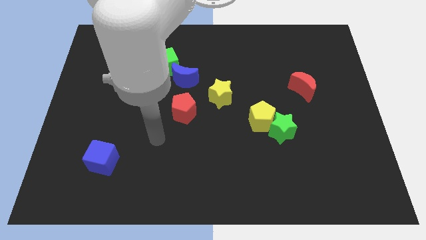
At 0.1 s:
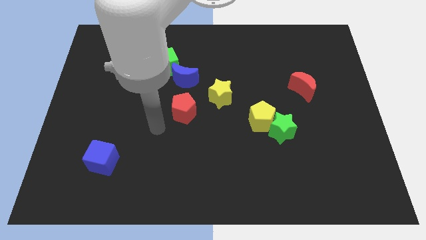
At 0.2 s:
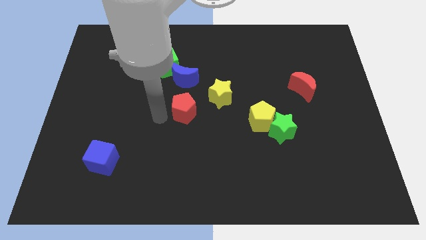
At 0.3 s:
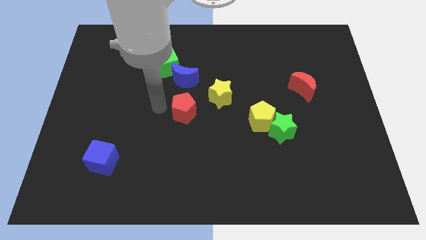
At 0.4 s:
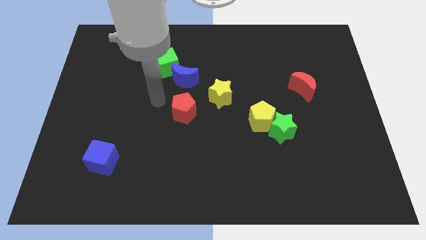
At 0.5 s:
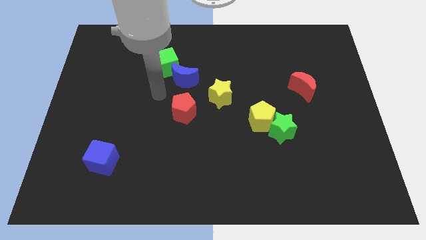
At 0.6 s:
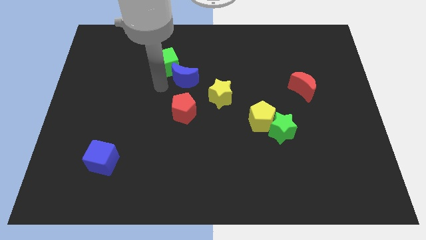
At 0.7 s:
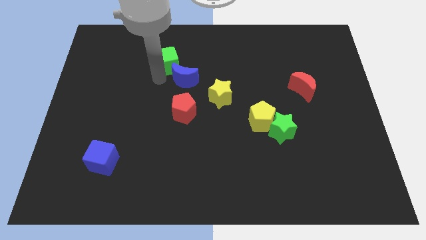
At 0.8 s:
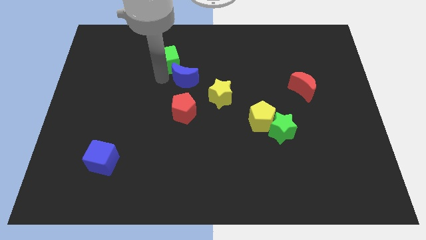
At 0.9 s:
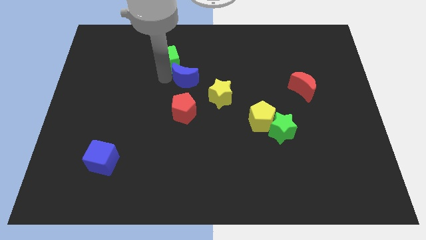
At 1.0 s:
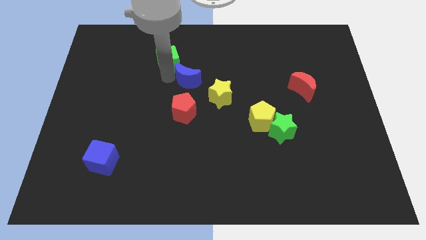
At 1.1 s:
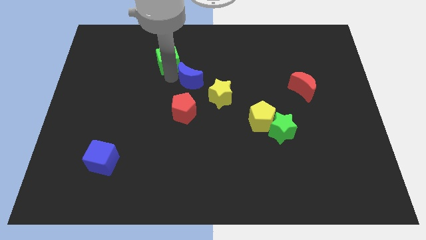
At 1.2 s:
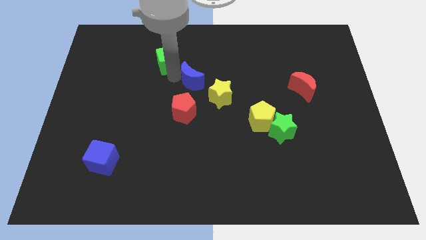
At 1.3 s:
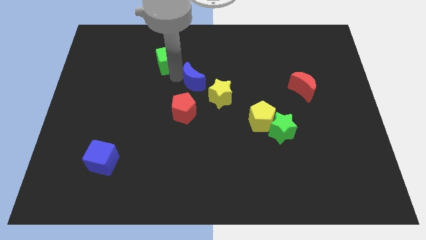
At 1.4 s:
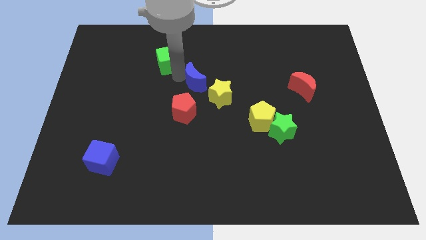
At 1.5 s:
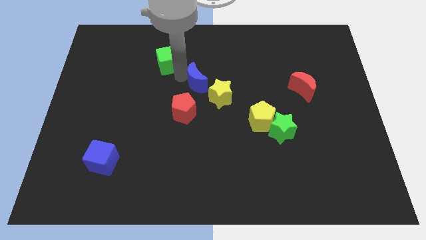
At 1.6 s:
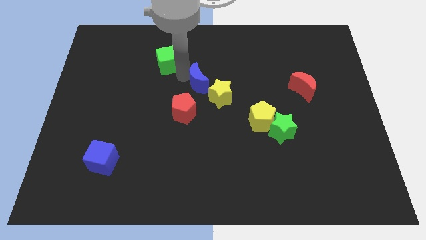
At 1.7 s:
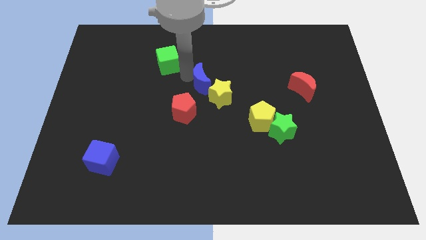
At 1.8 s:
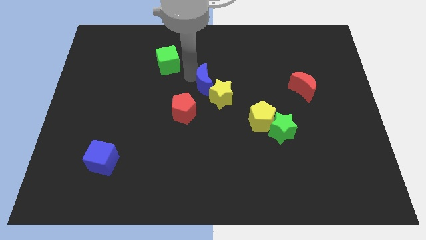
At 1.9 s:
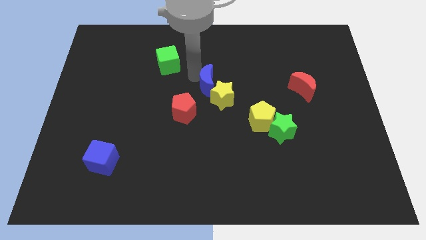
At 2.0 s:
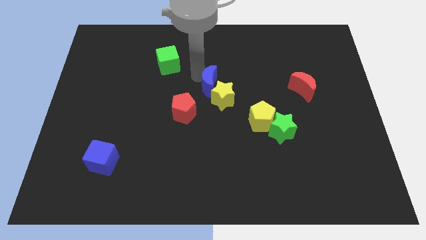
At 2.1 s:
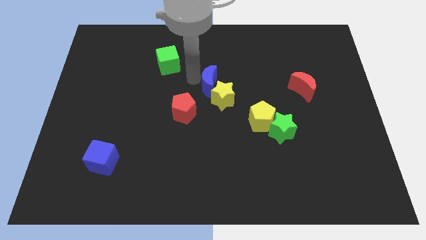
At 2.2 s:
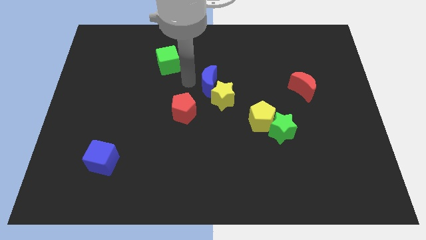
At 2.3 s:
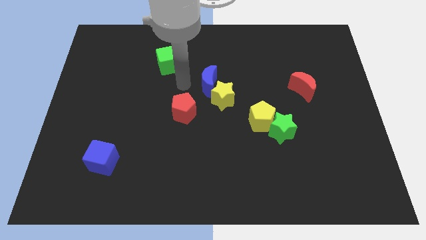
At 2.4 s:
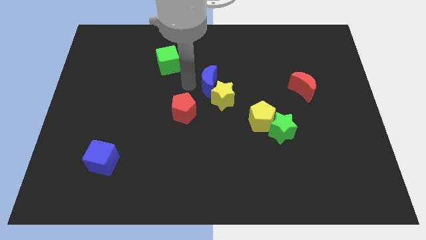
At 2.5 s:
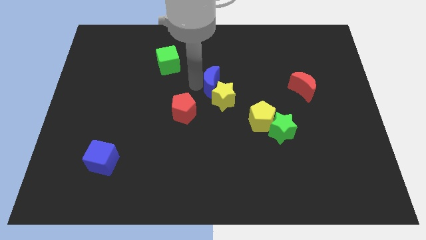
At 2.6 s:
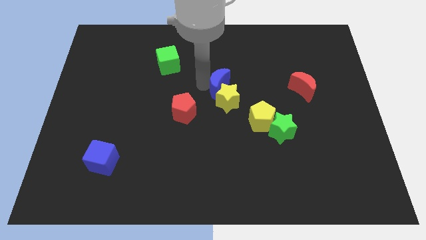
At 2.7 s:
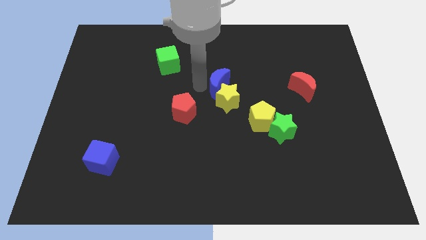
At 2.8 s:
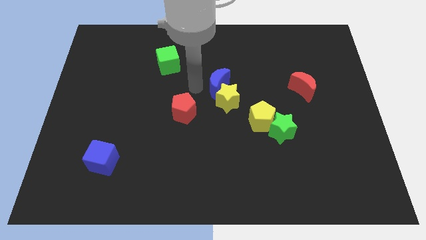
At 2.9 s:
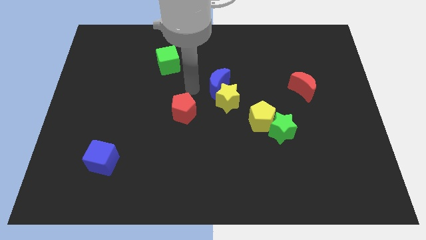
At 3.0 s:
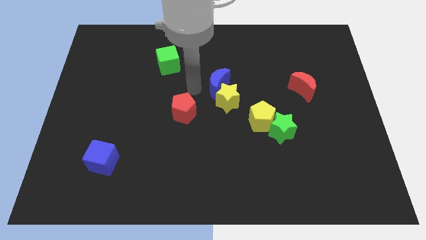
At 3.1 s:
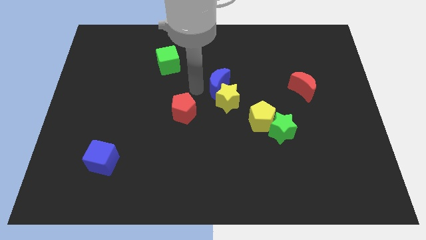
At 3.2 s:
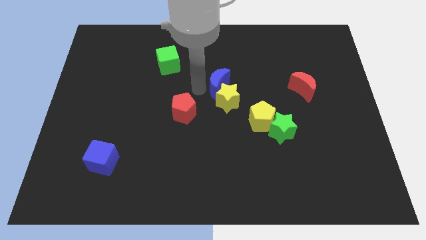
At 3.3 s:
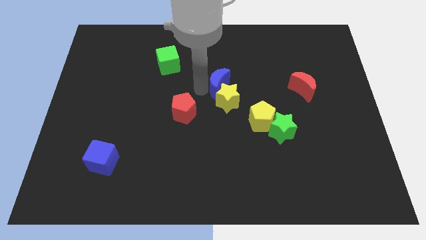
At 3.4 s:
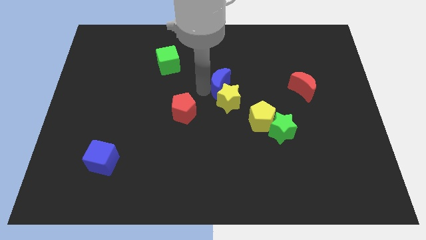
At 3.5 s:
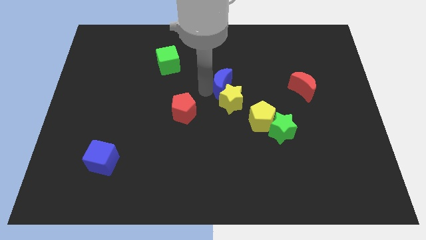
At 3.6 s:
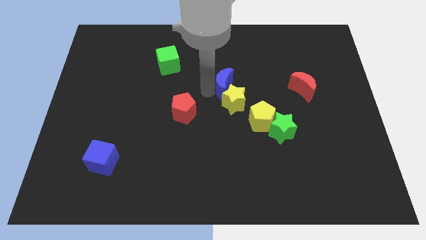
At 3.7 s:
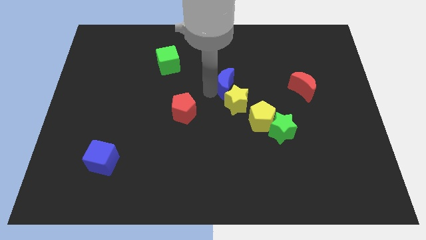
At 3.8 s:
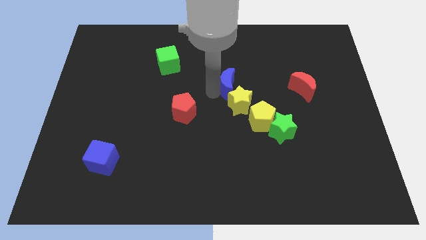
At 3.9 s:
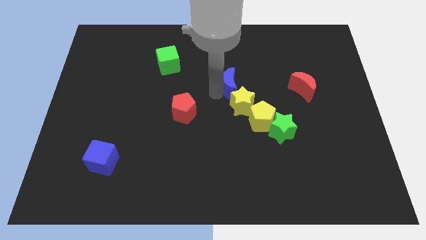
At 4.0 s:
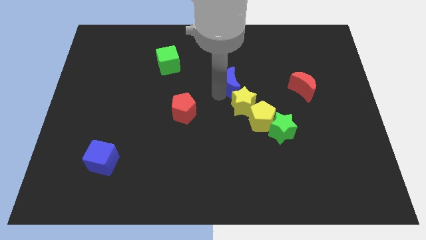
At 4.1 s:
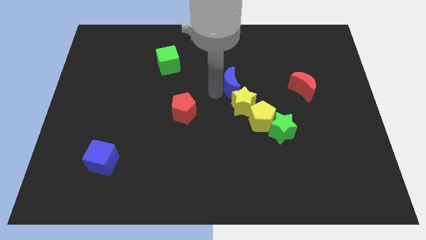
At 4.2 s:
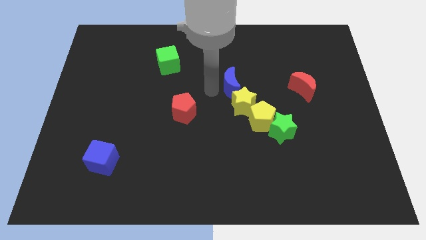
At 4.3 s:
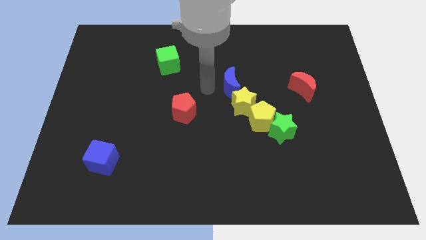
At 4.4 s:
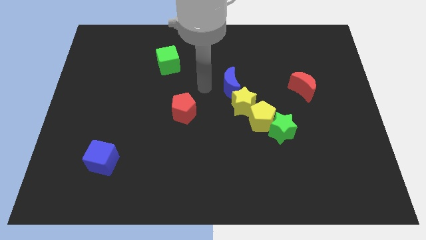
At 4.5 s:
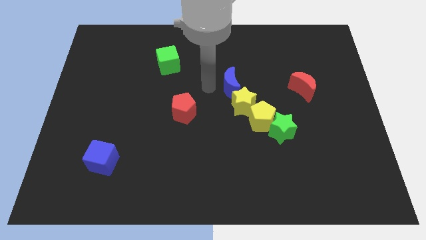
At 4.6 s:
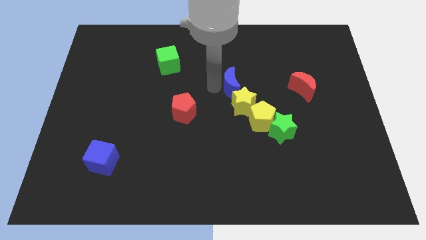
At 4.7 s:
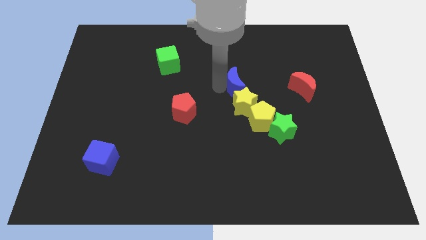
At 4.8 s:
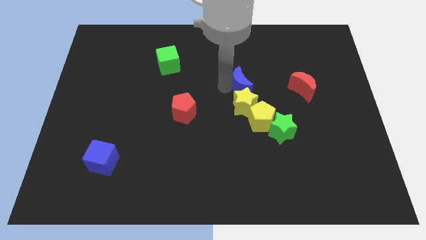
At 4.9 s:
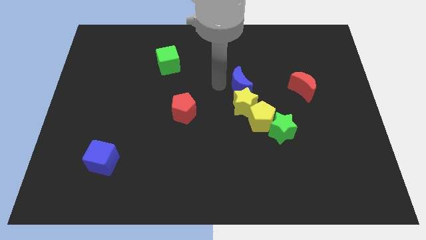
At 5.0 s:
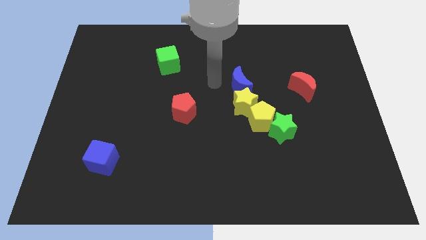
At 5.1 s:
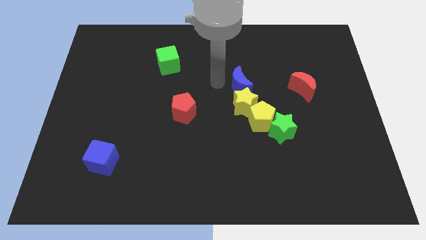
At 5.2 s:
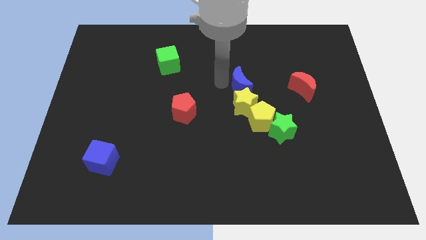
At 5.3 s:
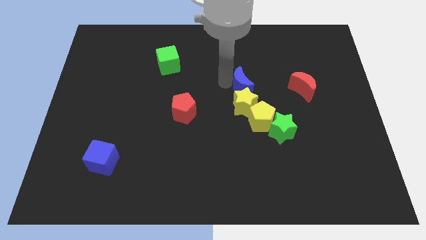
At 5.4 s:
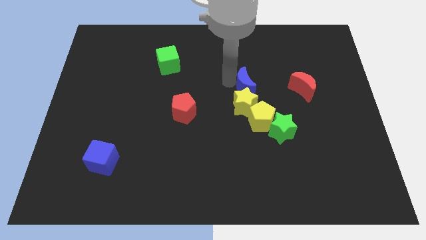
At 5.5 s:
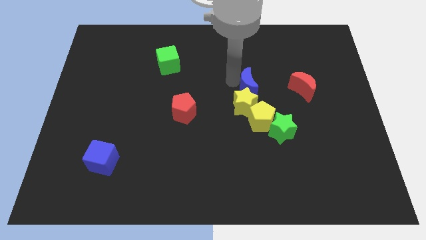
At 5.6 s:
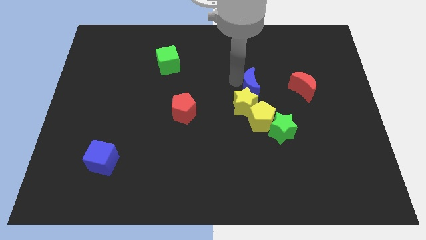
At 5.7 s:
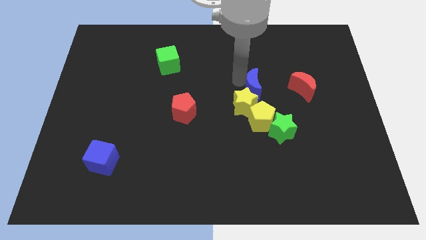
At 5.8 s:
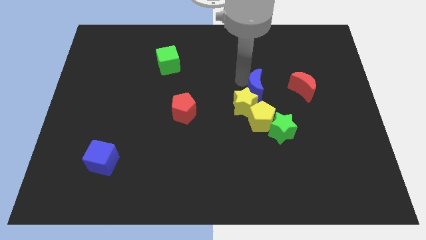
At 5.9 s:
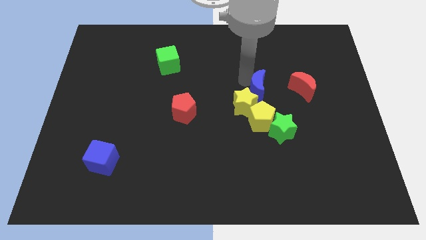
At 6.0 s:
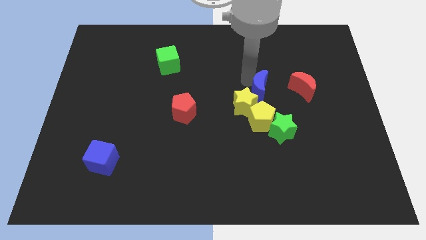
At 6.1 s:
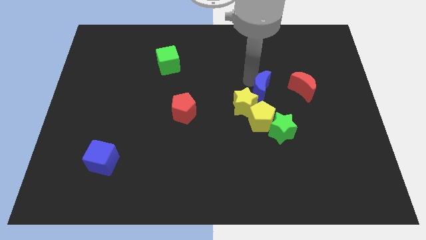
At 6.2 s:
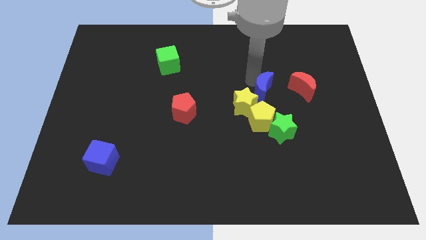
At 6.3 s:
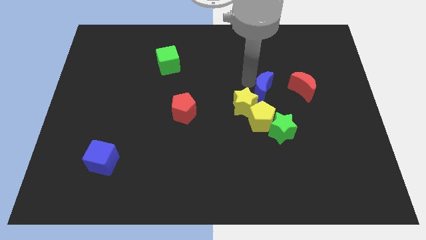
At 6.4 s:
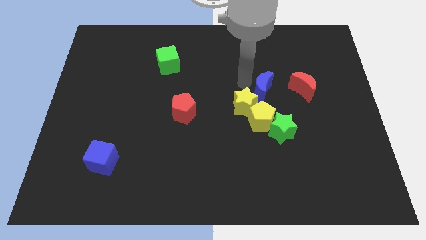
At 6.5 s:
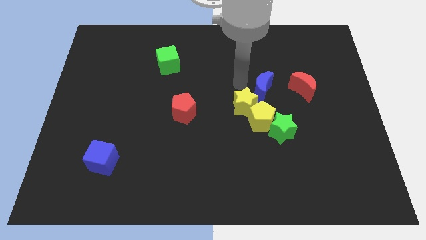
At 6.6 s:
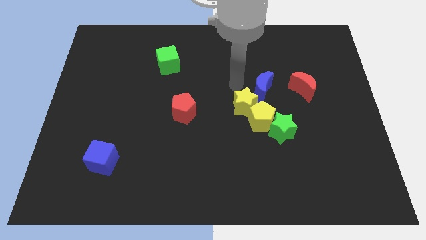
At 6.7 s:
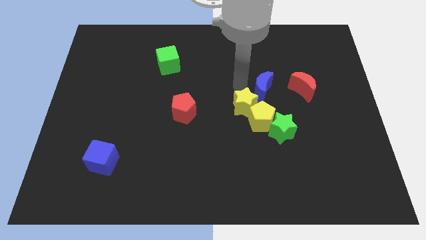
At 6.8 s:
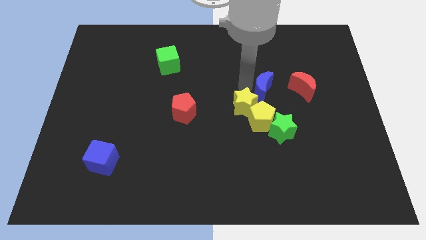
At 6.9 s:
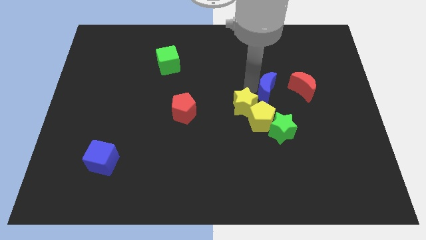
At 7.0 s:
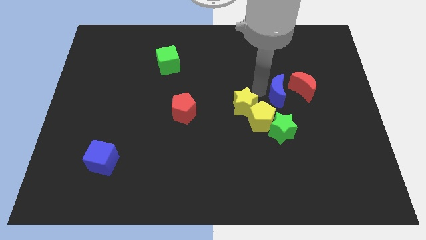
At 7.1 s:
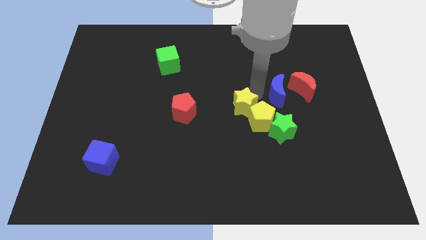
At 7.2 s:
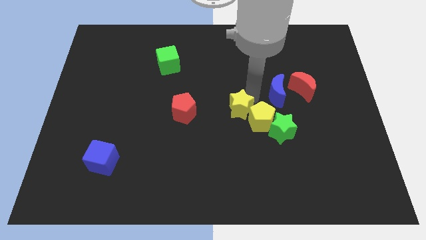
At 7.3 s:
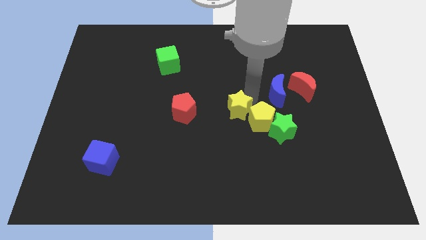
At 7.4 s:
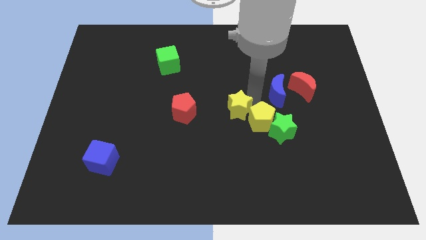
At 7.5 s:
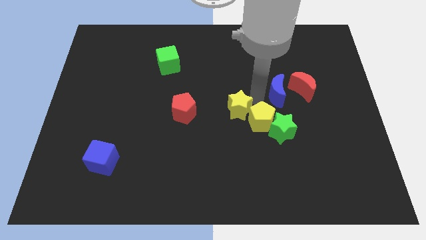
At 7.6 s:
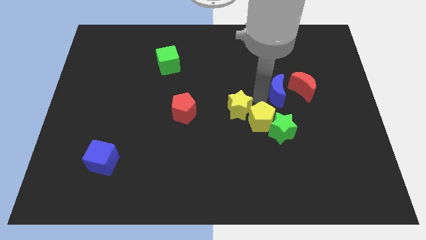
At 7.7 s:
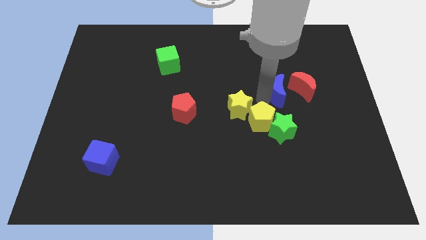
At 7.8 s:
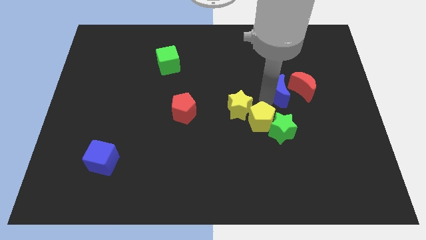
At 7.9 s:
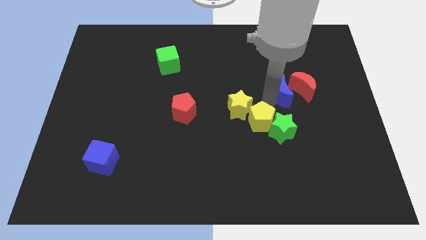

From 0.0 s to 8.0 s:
move the blue moon to the red moon
